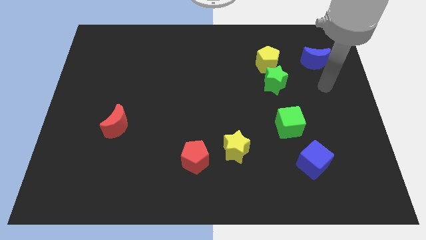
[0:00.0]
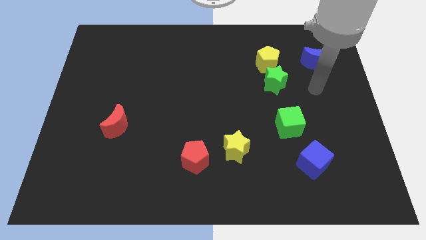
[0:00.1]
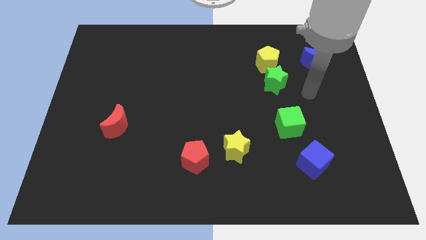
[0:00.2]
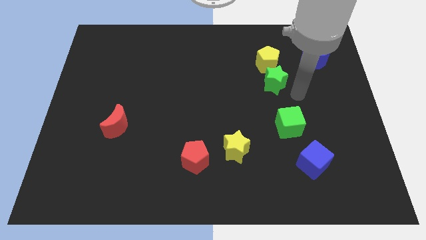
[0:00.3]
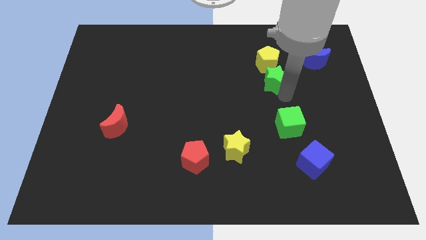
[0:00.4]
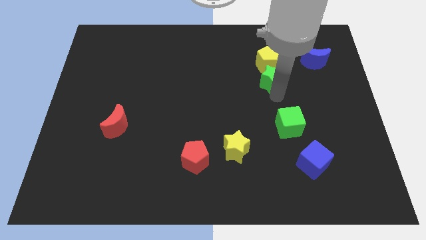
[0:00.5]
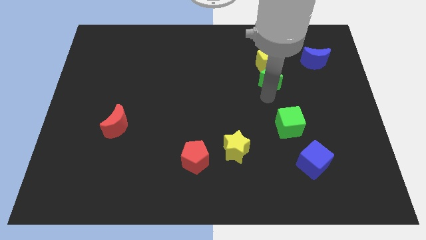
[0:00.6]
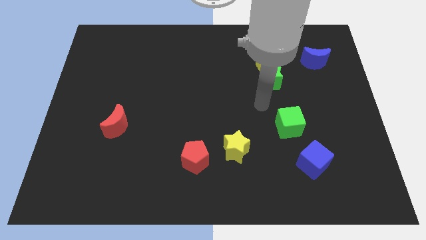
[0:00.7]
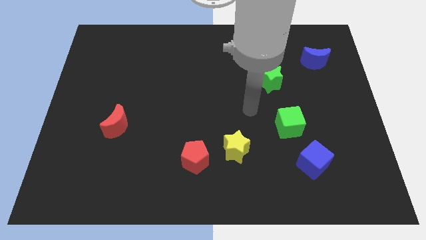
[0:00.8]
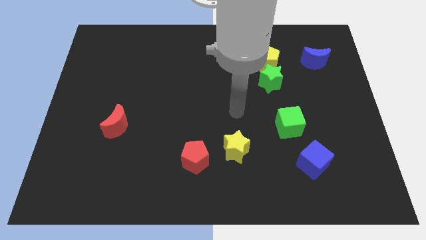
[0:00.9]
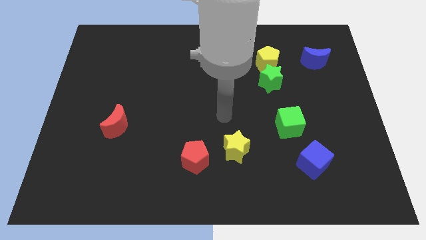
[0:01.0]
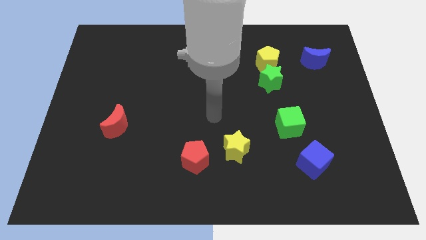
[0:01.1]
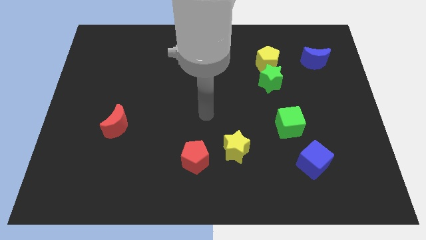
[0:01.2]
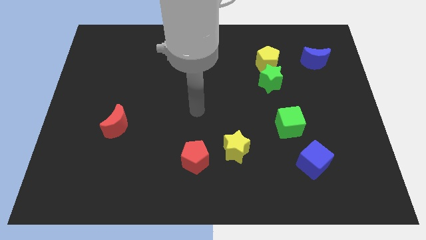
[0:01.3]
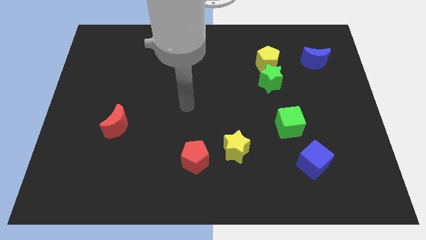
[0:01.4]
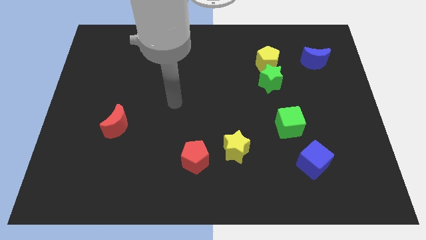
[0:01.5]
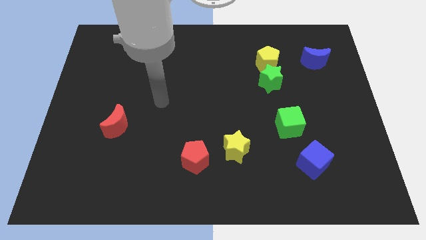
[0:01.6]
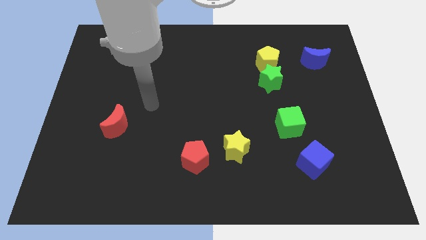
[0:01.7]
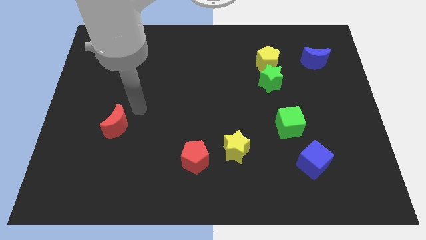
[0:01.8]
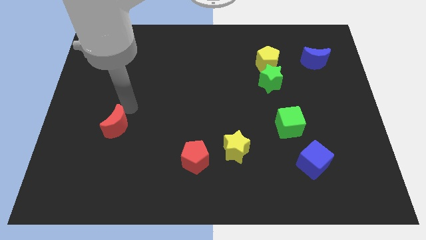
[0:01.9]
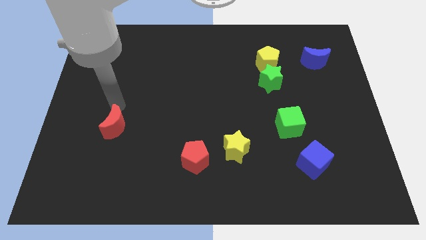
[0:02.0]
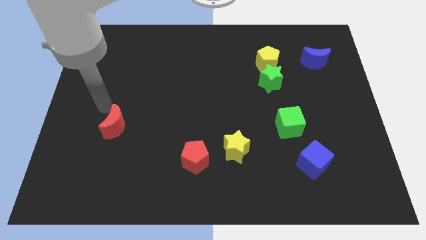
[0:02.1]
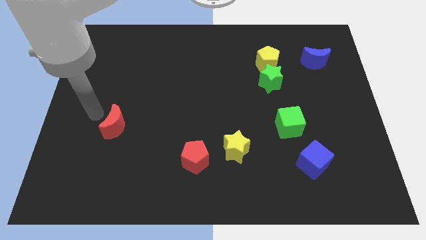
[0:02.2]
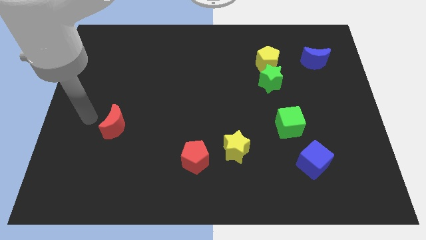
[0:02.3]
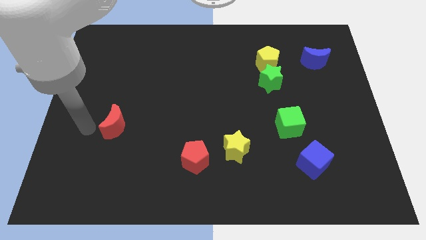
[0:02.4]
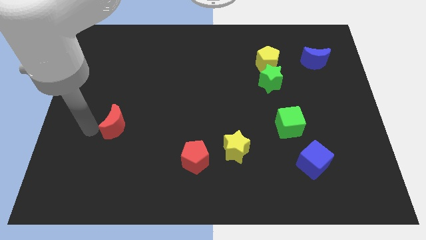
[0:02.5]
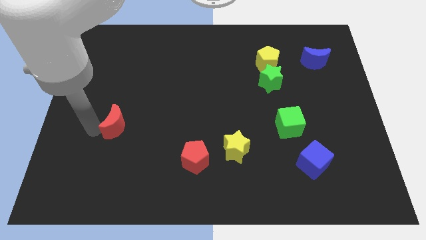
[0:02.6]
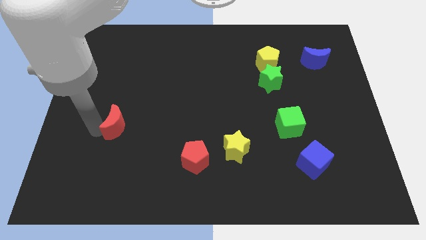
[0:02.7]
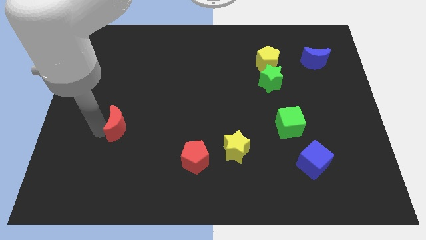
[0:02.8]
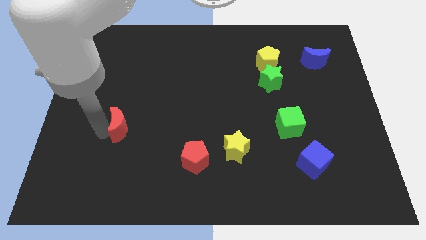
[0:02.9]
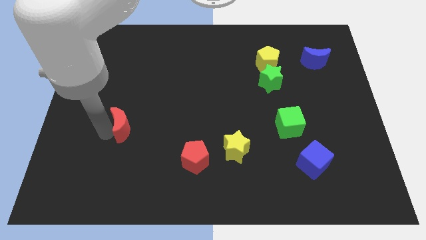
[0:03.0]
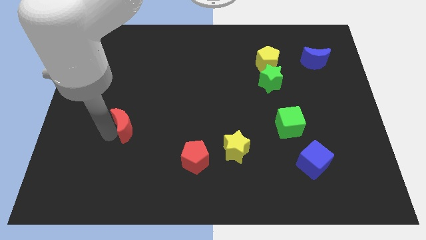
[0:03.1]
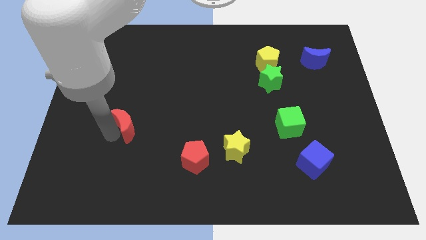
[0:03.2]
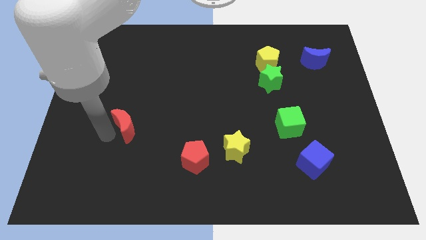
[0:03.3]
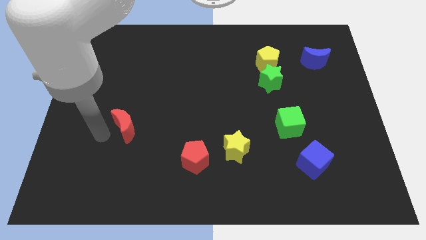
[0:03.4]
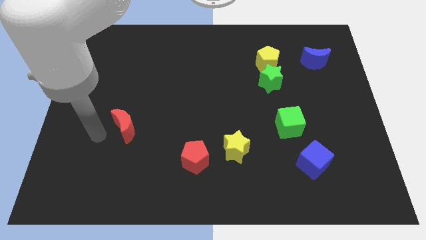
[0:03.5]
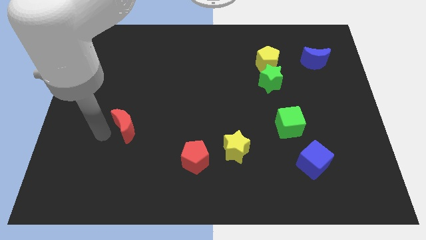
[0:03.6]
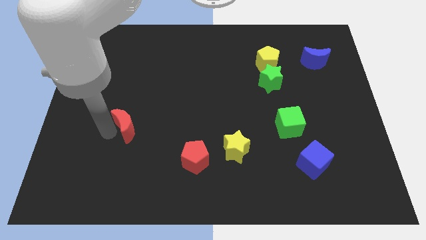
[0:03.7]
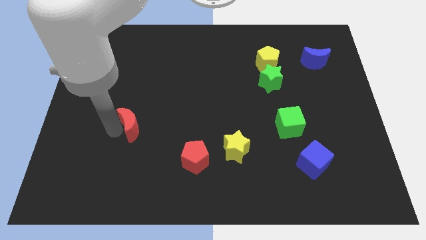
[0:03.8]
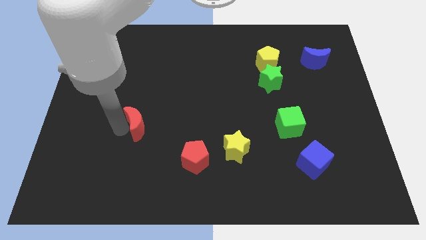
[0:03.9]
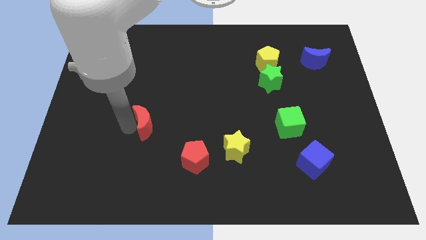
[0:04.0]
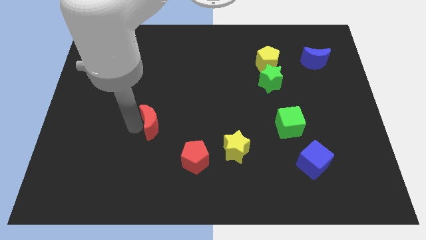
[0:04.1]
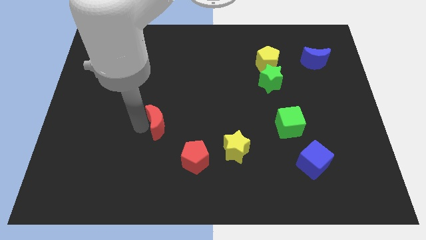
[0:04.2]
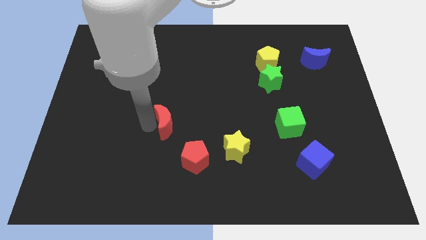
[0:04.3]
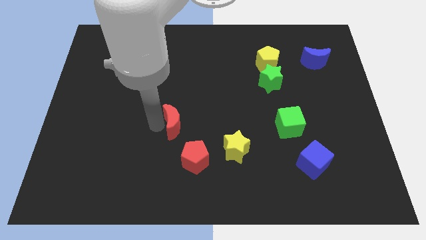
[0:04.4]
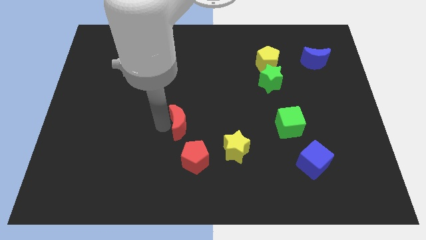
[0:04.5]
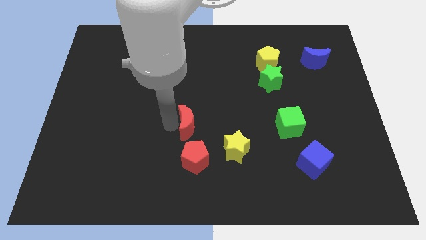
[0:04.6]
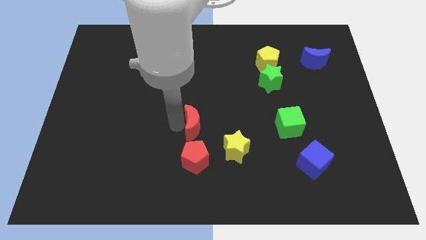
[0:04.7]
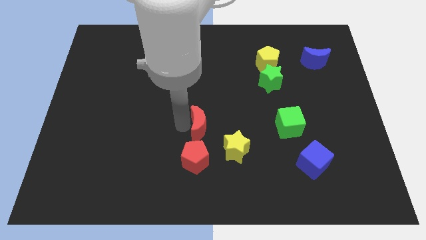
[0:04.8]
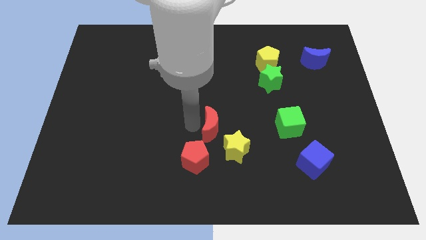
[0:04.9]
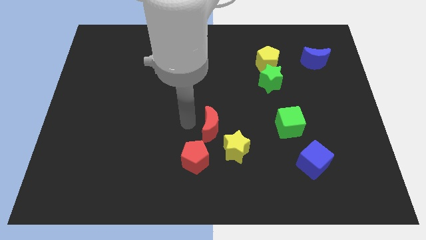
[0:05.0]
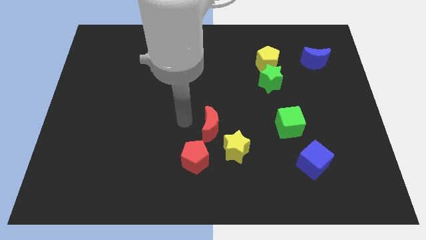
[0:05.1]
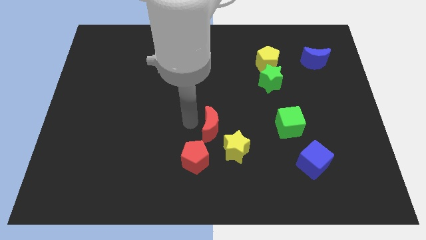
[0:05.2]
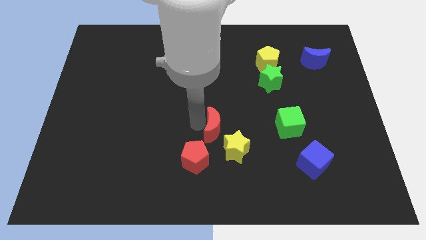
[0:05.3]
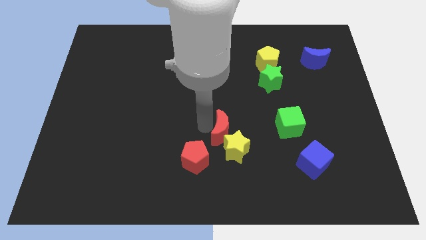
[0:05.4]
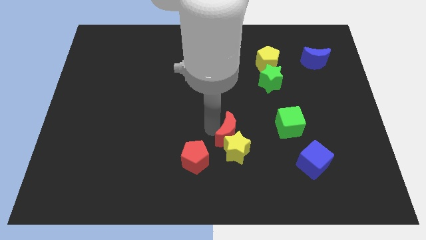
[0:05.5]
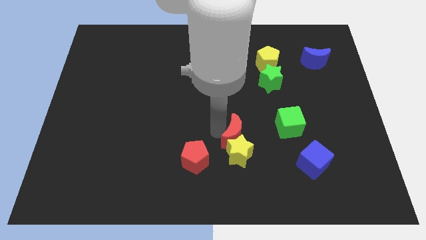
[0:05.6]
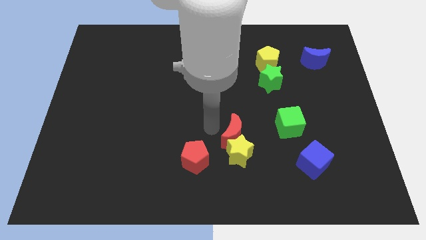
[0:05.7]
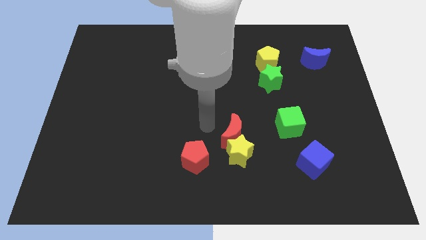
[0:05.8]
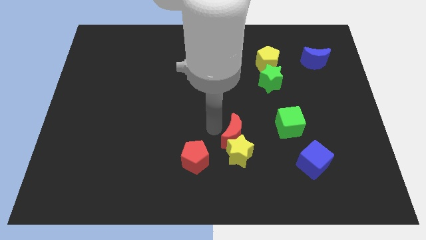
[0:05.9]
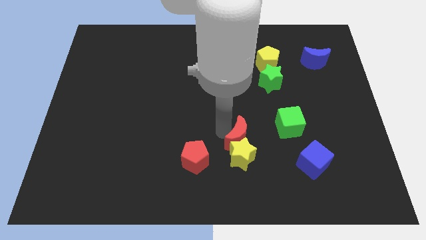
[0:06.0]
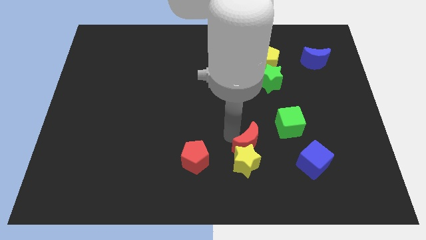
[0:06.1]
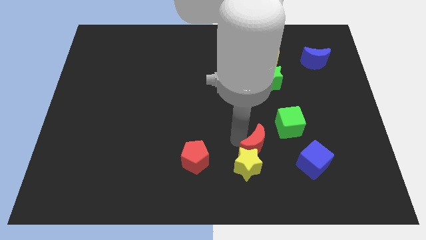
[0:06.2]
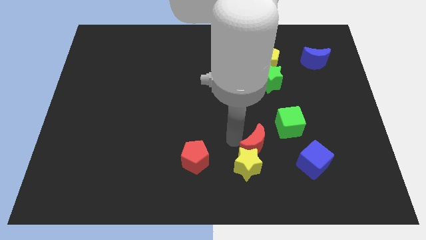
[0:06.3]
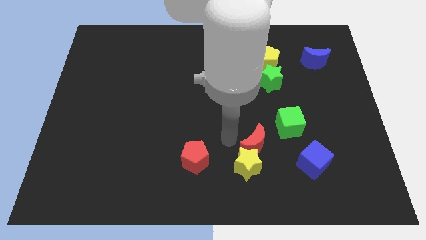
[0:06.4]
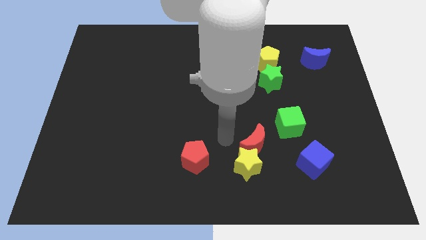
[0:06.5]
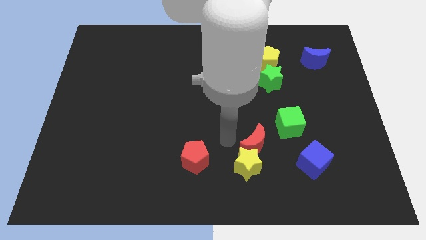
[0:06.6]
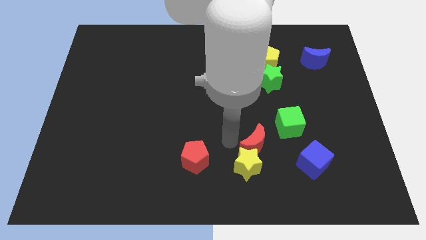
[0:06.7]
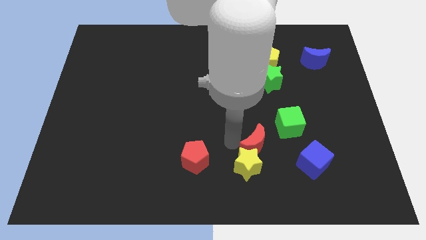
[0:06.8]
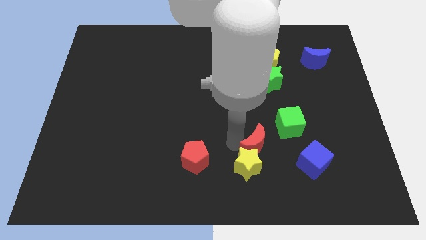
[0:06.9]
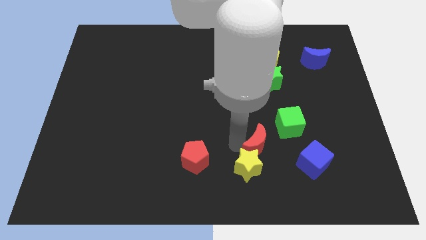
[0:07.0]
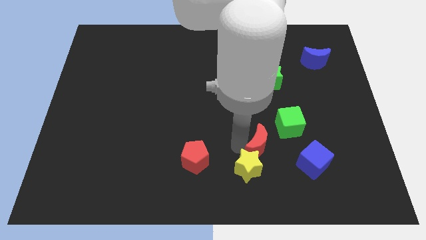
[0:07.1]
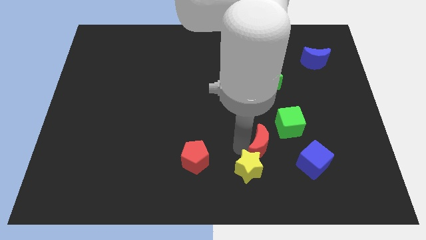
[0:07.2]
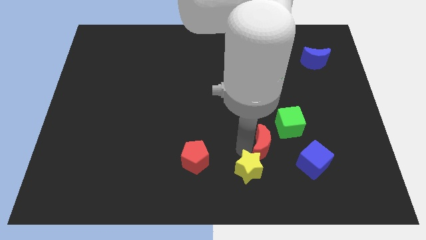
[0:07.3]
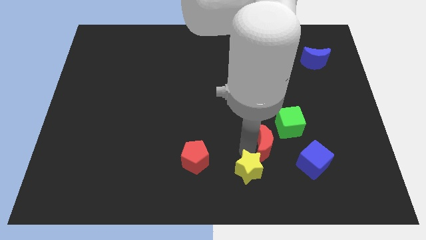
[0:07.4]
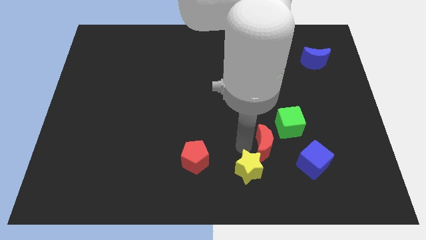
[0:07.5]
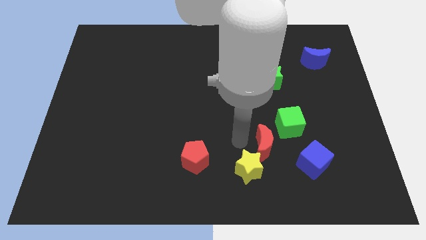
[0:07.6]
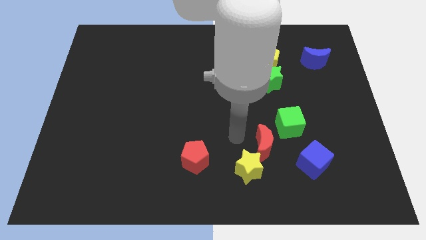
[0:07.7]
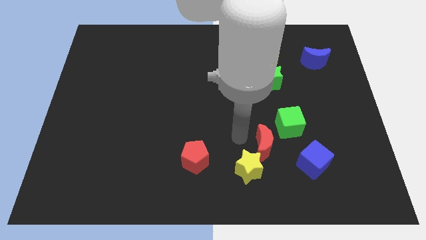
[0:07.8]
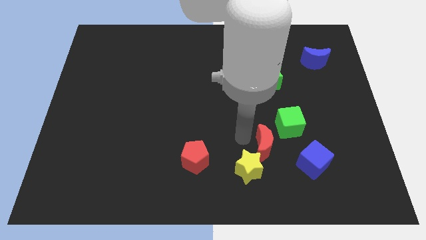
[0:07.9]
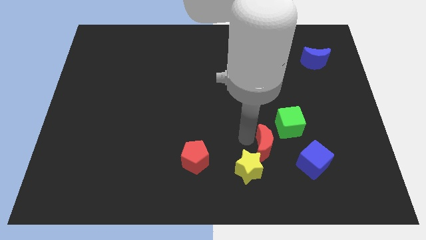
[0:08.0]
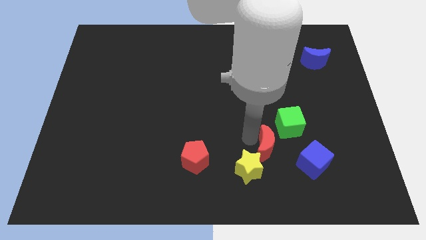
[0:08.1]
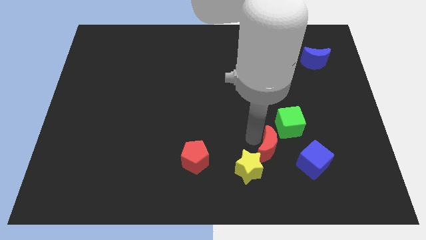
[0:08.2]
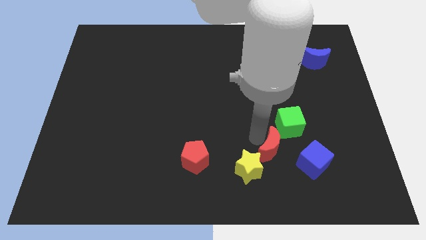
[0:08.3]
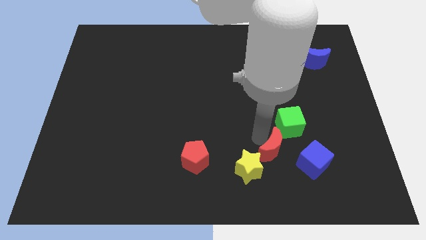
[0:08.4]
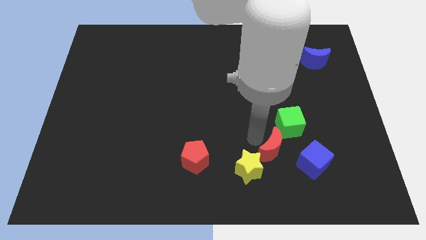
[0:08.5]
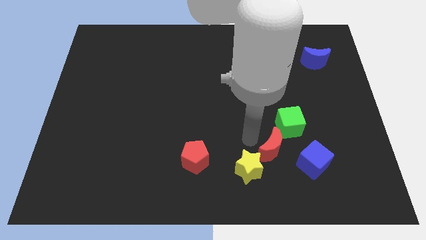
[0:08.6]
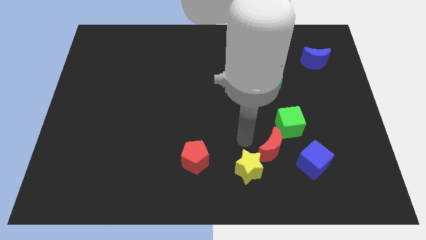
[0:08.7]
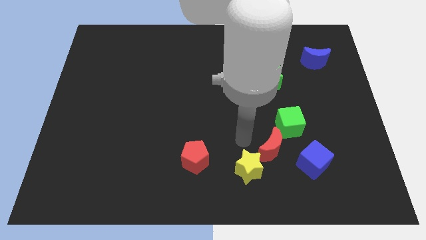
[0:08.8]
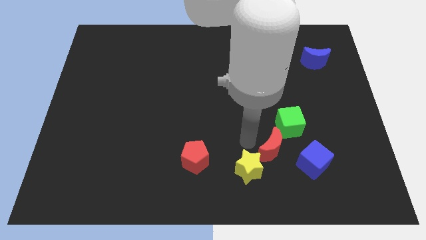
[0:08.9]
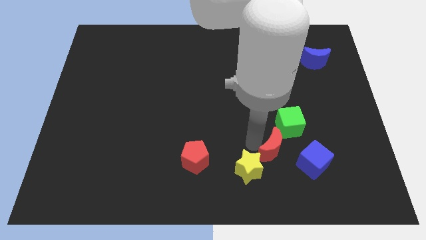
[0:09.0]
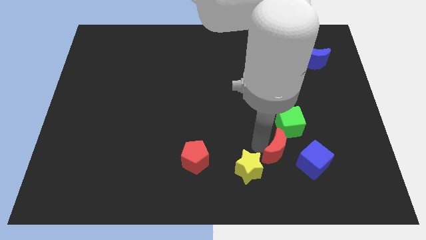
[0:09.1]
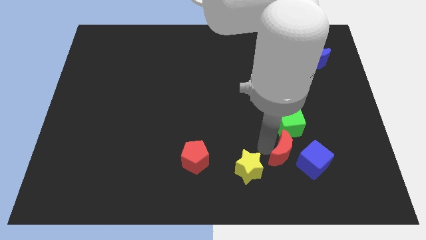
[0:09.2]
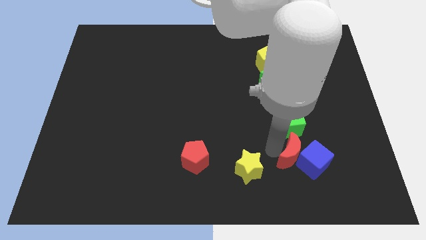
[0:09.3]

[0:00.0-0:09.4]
slide the red moon towards the blue cube
